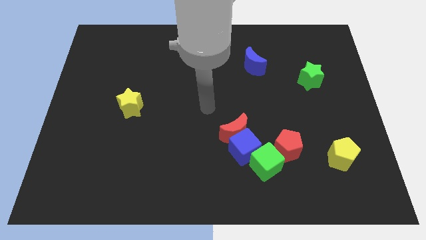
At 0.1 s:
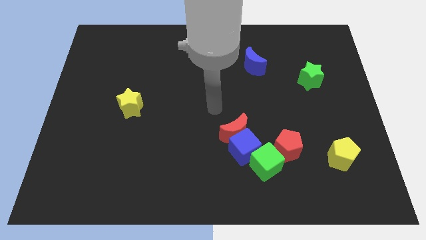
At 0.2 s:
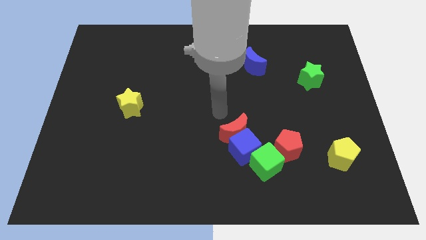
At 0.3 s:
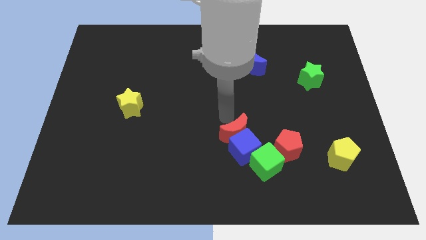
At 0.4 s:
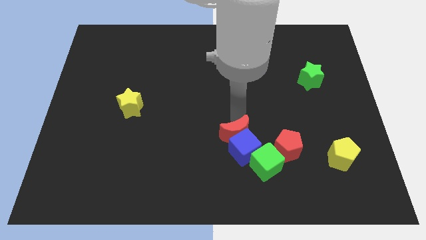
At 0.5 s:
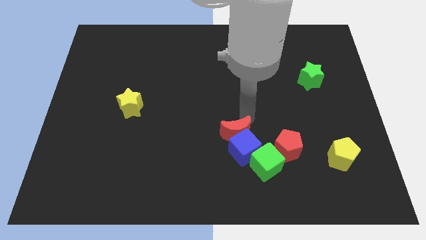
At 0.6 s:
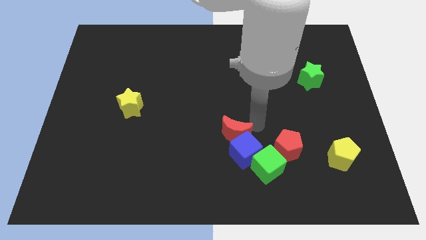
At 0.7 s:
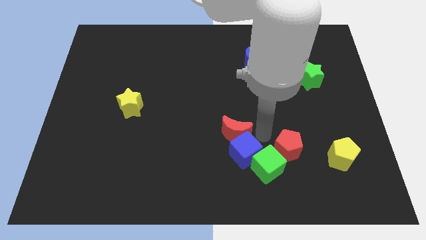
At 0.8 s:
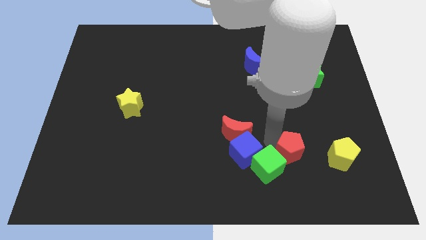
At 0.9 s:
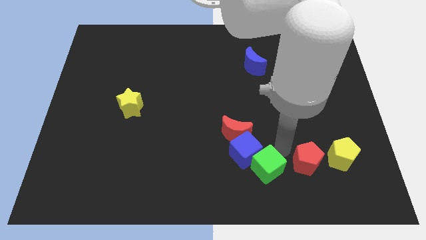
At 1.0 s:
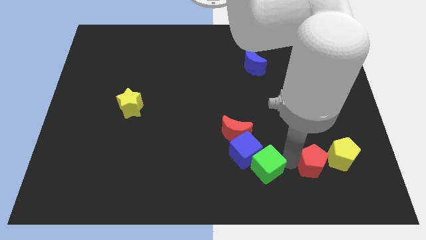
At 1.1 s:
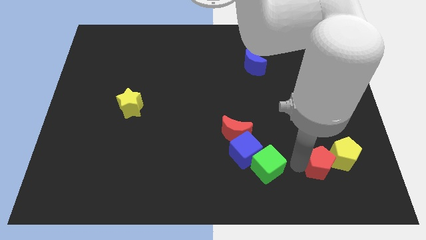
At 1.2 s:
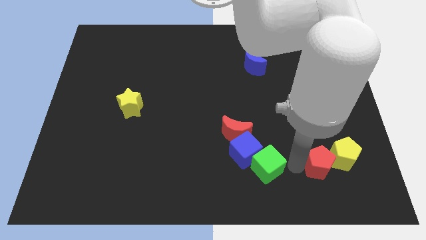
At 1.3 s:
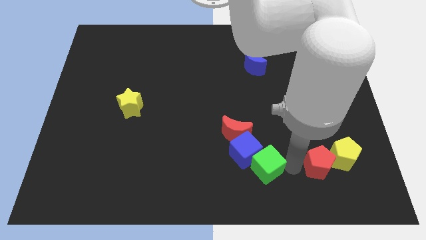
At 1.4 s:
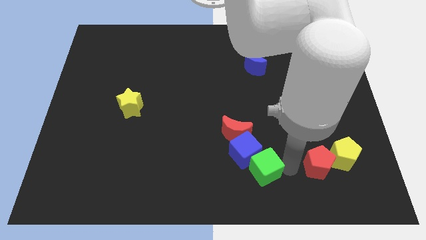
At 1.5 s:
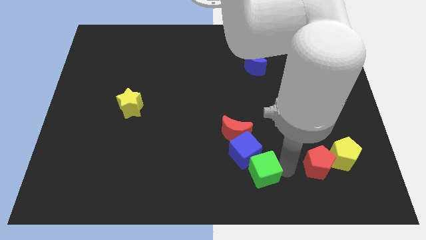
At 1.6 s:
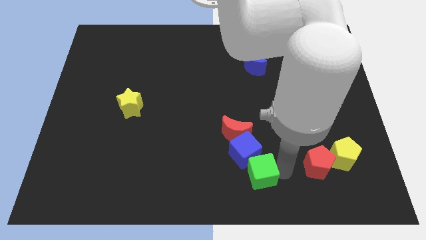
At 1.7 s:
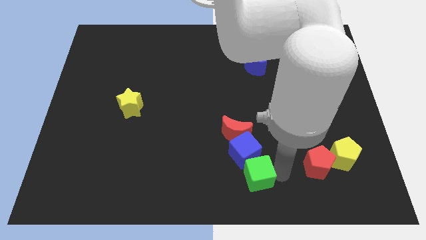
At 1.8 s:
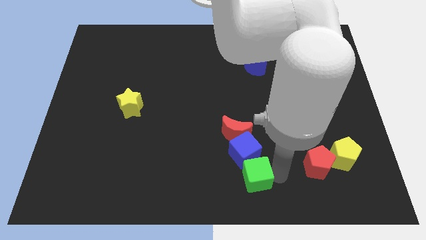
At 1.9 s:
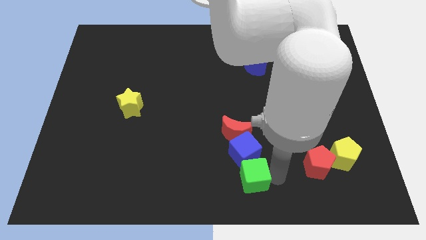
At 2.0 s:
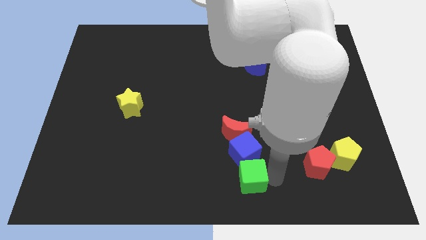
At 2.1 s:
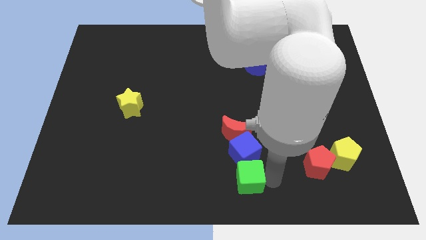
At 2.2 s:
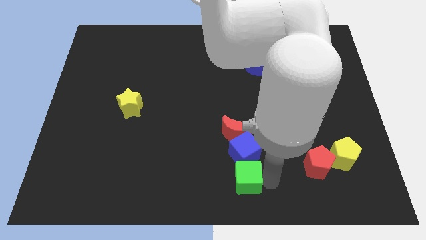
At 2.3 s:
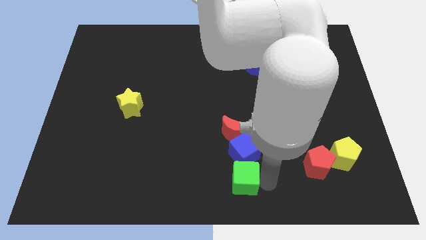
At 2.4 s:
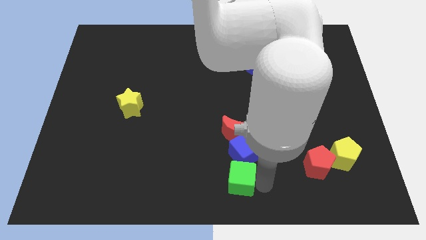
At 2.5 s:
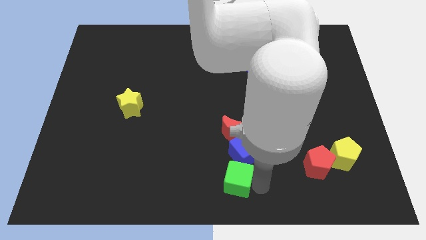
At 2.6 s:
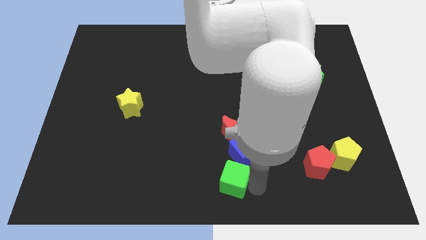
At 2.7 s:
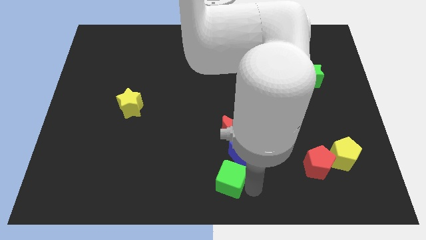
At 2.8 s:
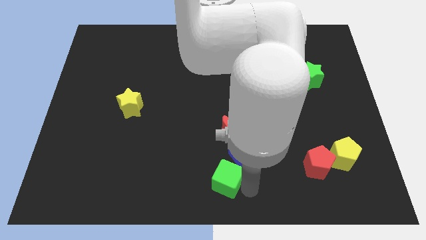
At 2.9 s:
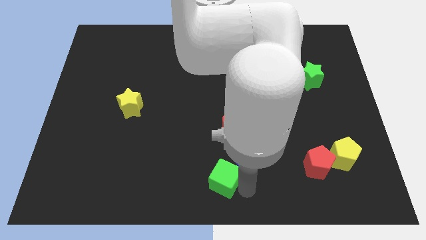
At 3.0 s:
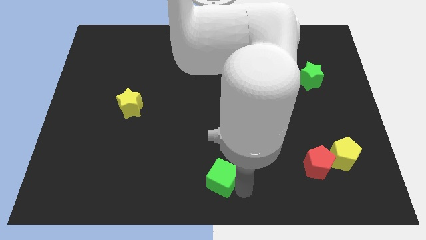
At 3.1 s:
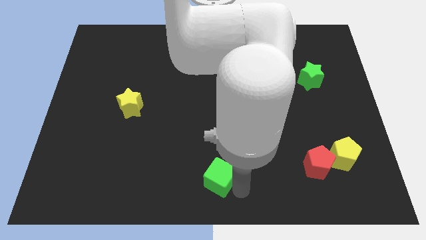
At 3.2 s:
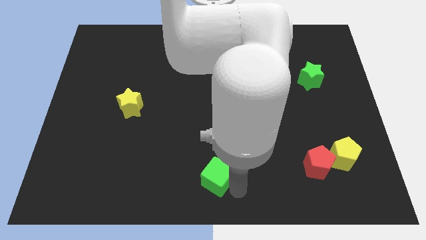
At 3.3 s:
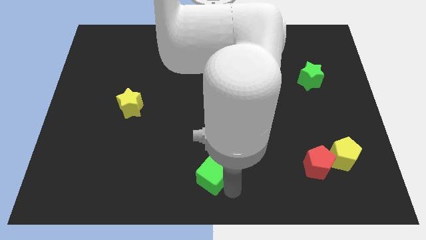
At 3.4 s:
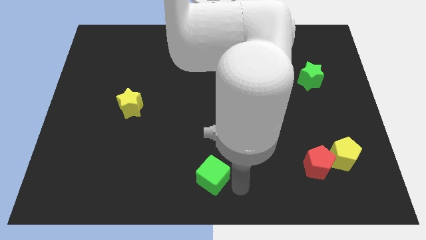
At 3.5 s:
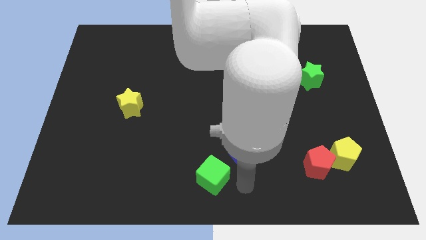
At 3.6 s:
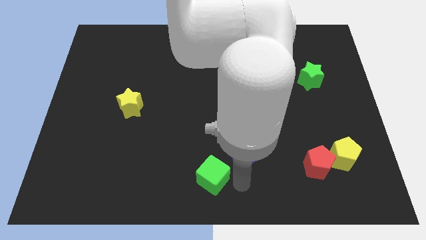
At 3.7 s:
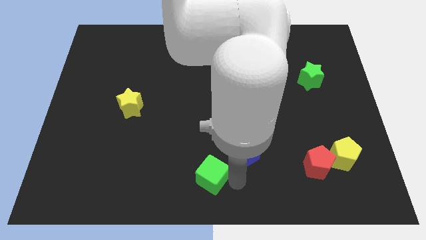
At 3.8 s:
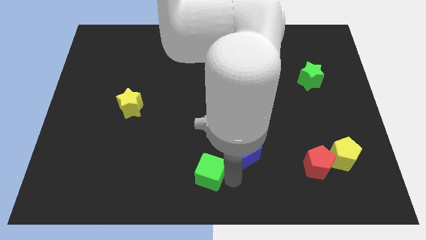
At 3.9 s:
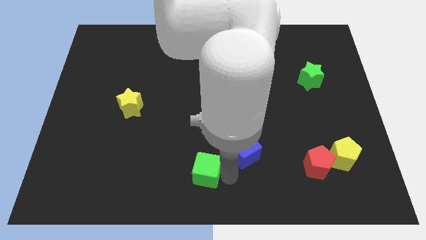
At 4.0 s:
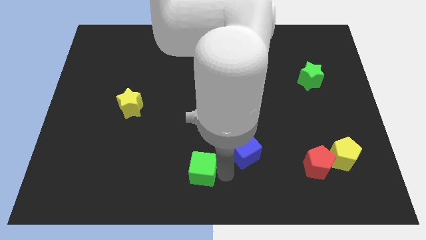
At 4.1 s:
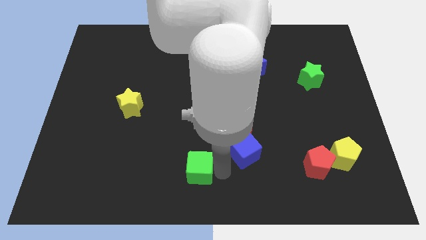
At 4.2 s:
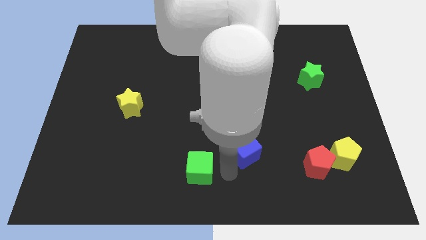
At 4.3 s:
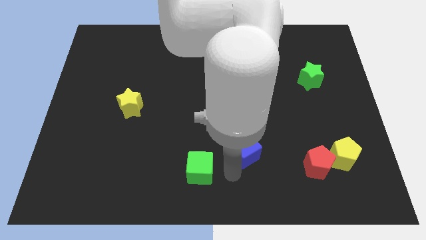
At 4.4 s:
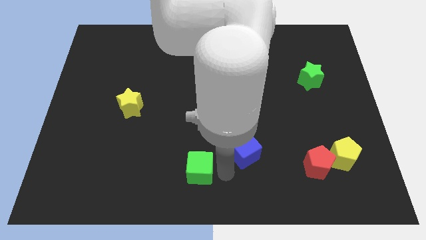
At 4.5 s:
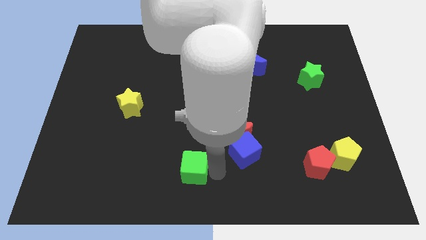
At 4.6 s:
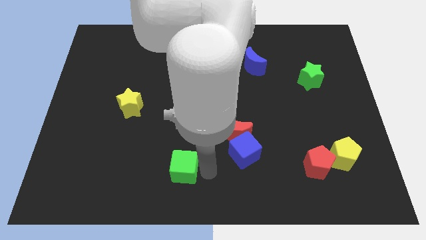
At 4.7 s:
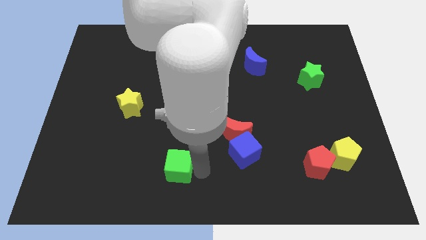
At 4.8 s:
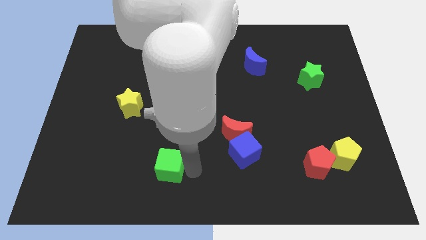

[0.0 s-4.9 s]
slide the green cube left

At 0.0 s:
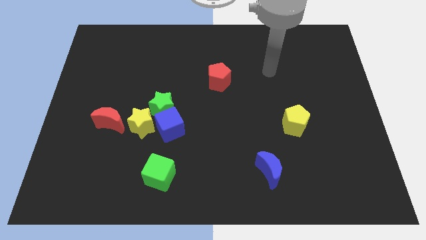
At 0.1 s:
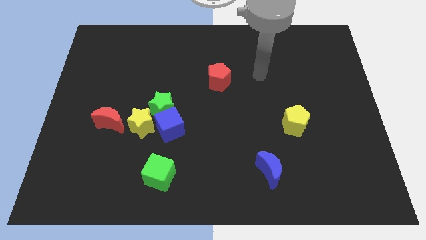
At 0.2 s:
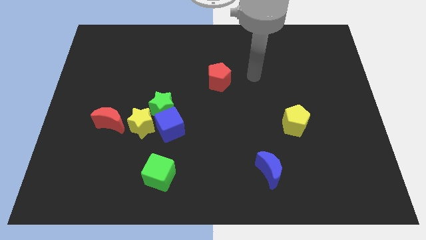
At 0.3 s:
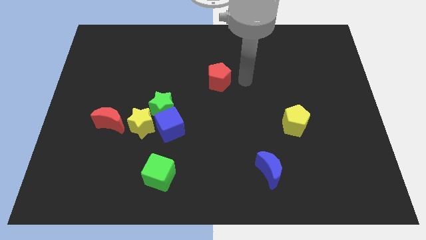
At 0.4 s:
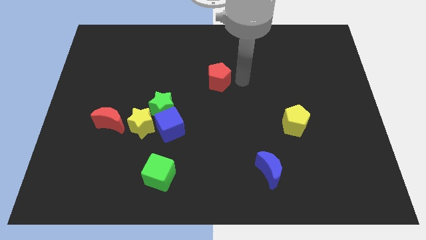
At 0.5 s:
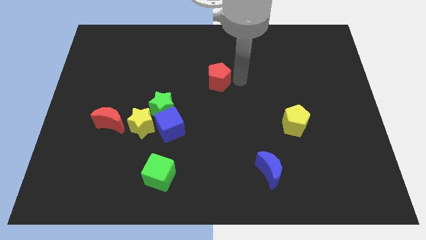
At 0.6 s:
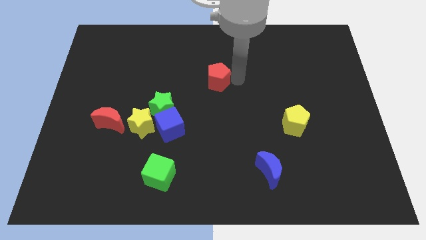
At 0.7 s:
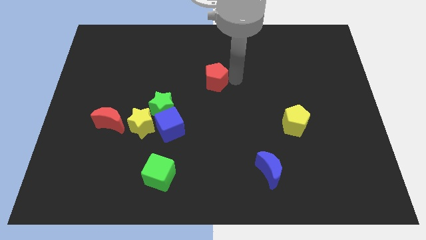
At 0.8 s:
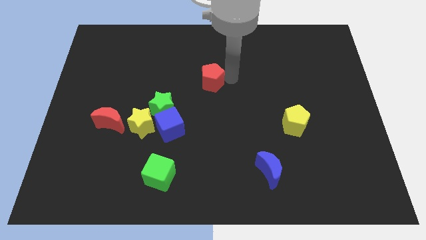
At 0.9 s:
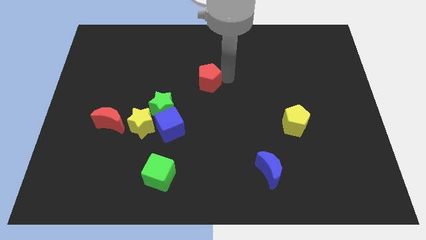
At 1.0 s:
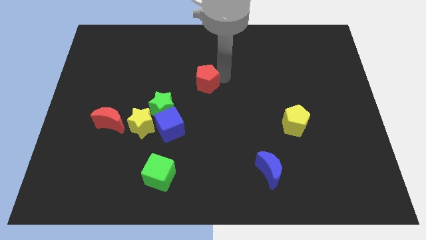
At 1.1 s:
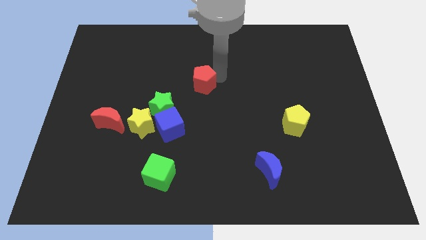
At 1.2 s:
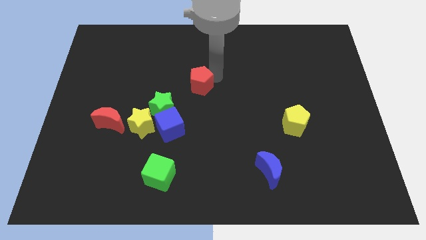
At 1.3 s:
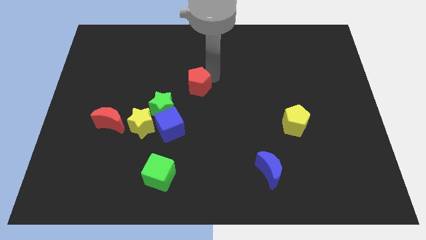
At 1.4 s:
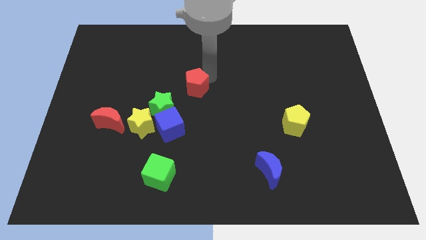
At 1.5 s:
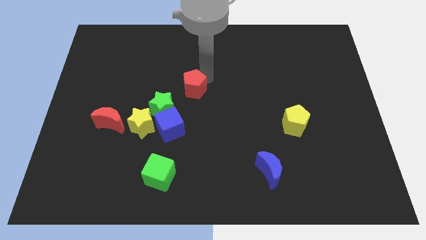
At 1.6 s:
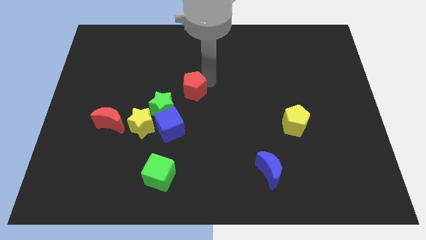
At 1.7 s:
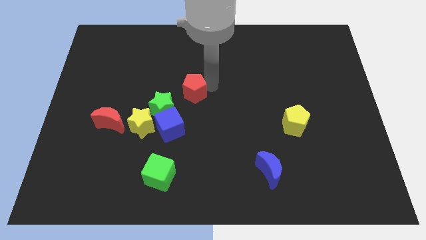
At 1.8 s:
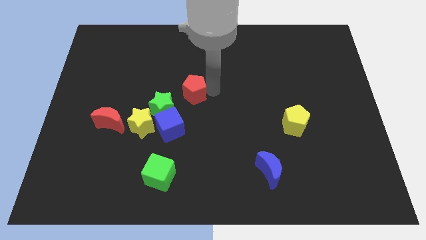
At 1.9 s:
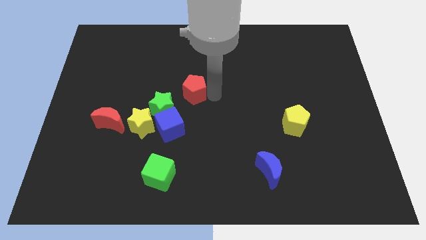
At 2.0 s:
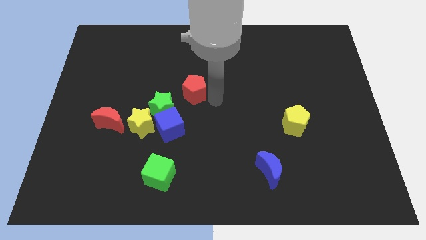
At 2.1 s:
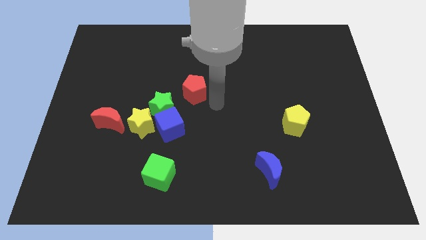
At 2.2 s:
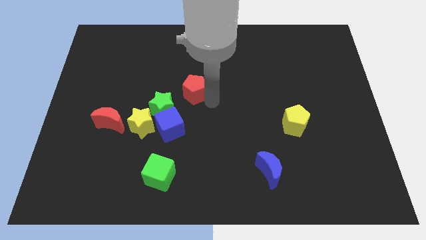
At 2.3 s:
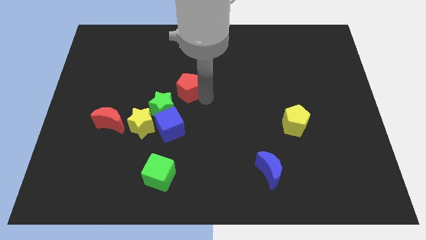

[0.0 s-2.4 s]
slide the red pentagon left somewhat

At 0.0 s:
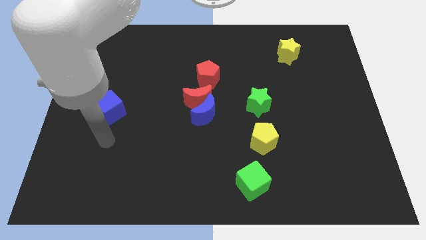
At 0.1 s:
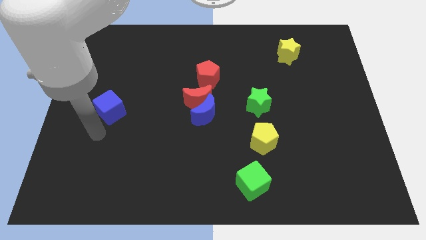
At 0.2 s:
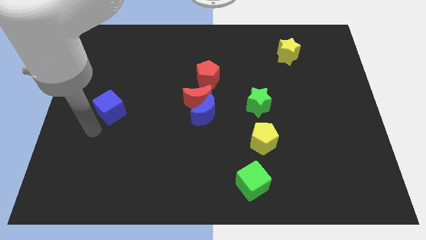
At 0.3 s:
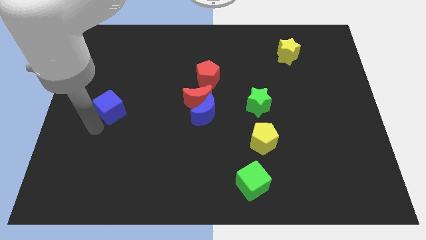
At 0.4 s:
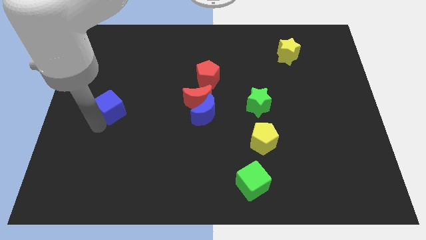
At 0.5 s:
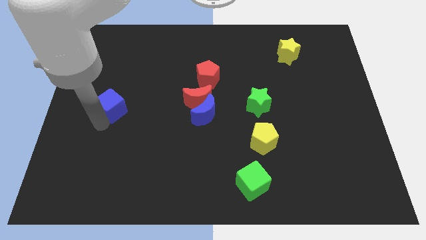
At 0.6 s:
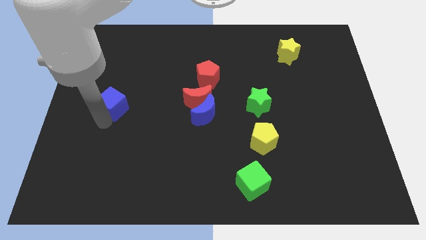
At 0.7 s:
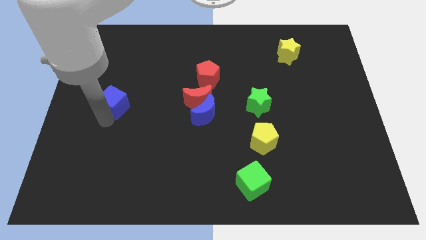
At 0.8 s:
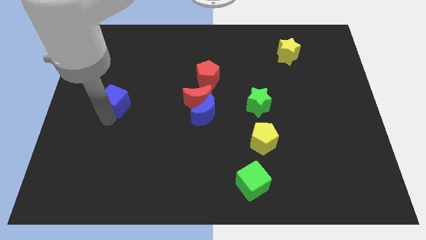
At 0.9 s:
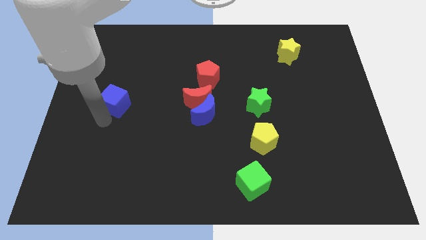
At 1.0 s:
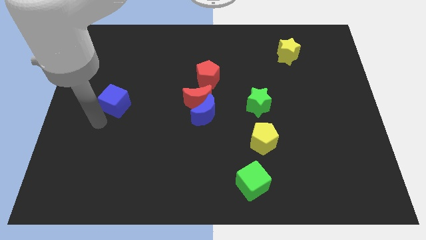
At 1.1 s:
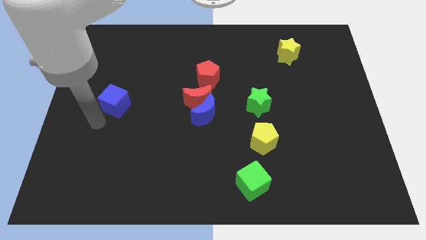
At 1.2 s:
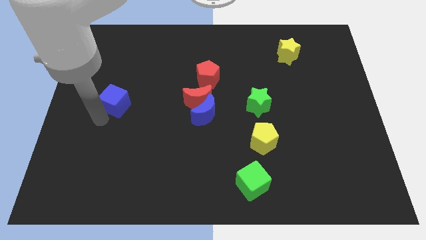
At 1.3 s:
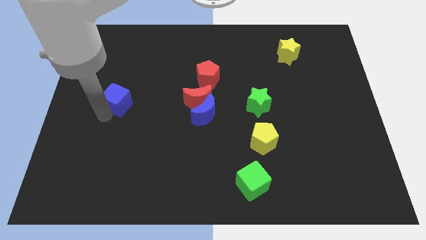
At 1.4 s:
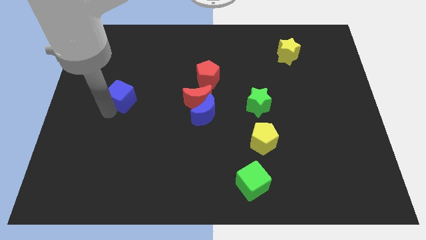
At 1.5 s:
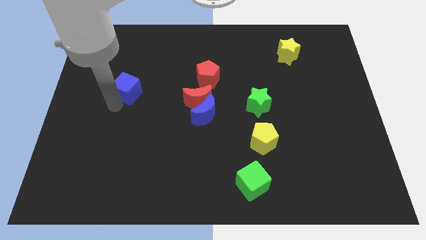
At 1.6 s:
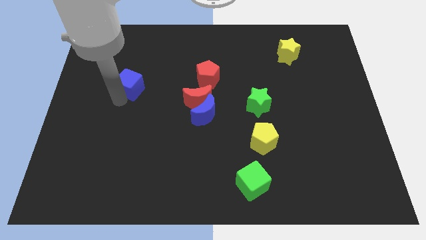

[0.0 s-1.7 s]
slightly push the blue cube up and right
